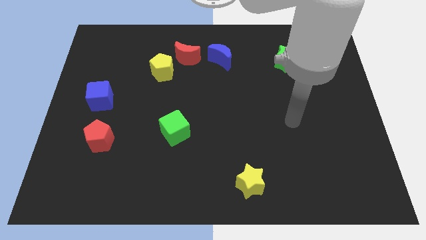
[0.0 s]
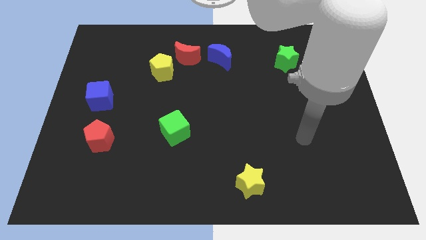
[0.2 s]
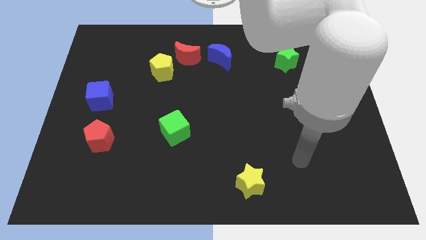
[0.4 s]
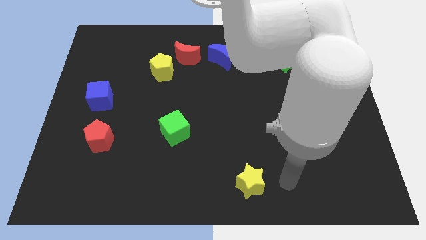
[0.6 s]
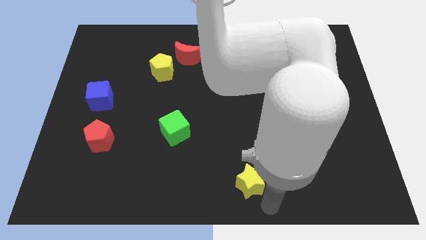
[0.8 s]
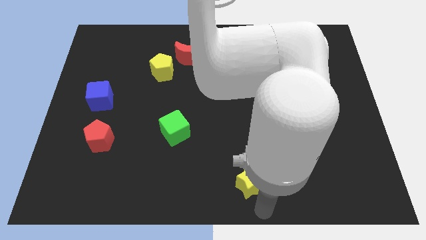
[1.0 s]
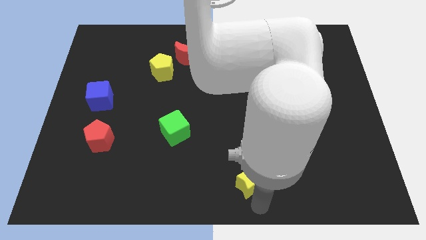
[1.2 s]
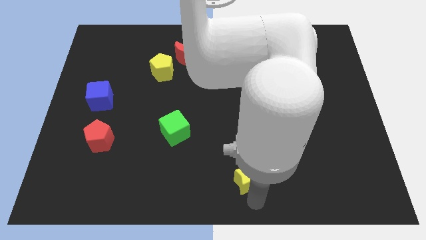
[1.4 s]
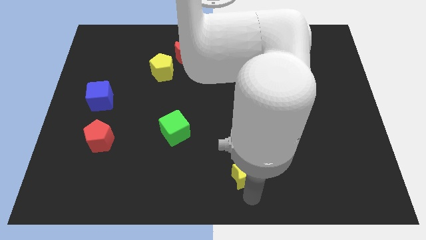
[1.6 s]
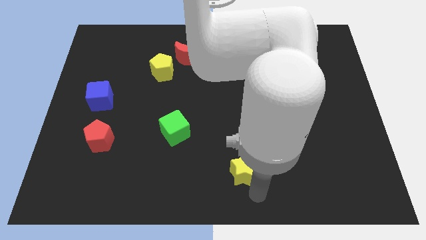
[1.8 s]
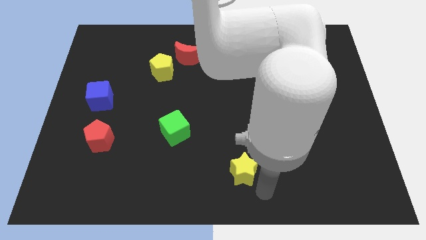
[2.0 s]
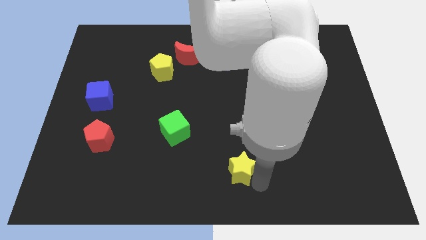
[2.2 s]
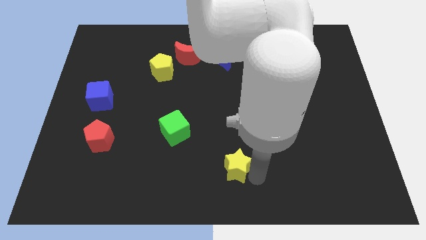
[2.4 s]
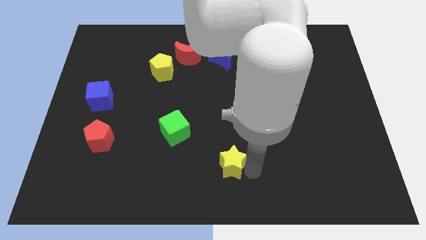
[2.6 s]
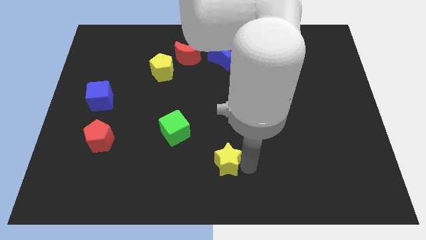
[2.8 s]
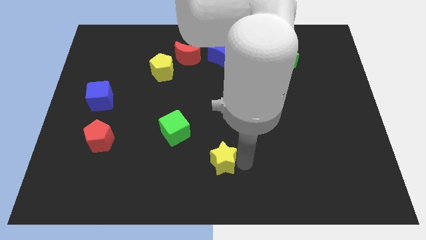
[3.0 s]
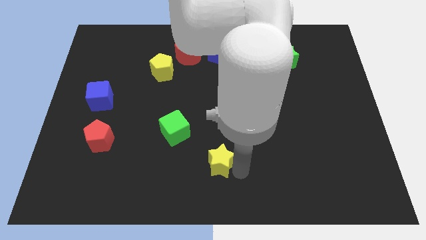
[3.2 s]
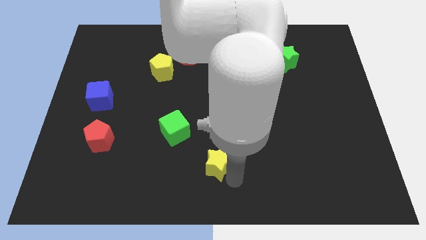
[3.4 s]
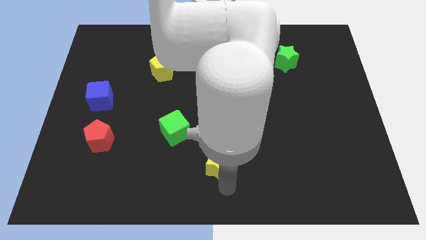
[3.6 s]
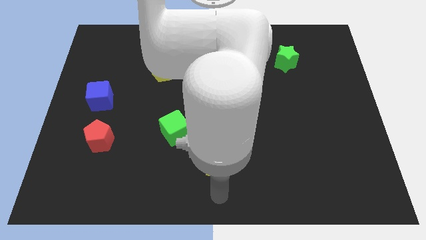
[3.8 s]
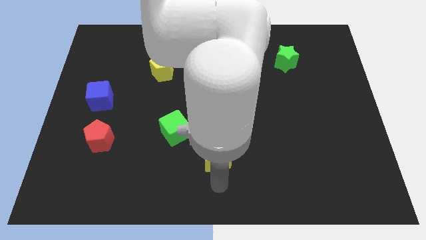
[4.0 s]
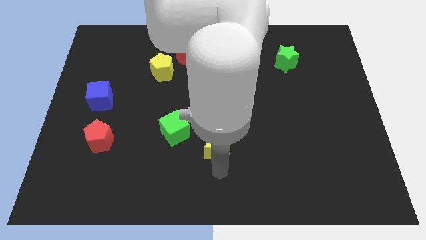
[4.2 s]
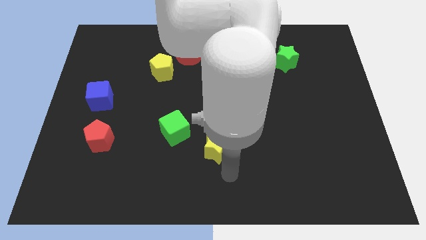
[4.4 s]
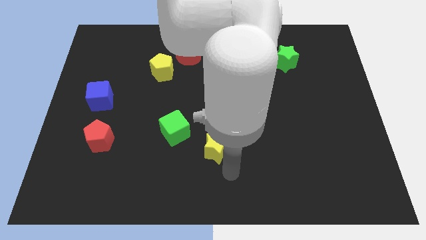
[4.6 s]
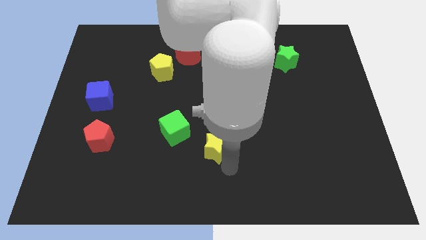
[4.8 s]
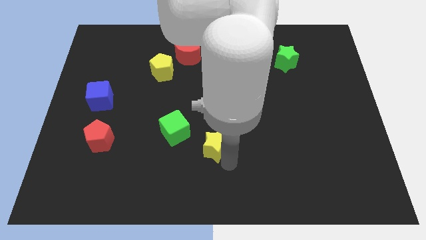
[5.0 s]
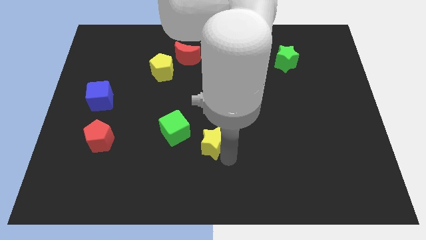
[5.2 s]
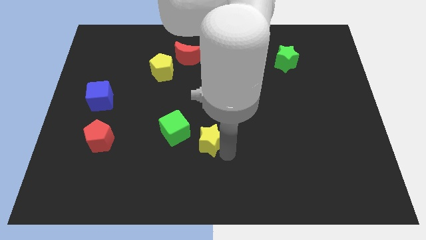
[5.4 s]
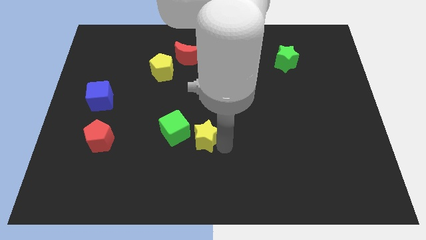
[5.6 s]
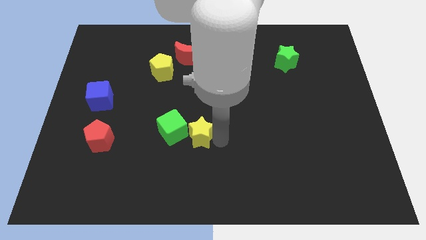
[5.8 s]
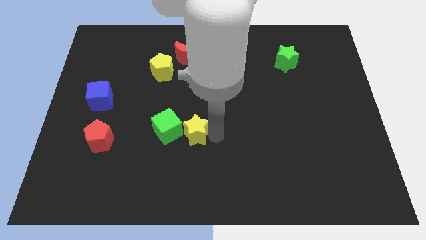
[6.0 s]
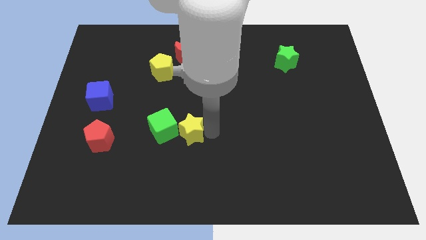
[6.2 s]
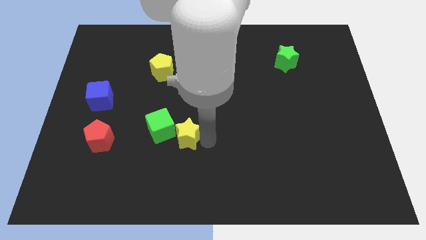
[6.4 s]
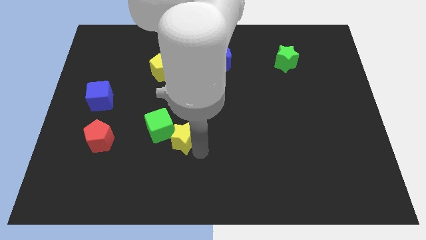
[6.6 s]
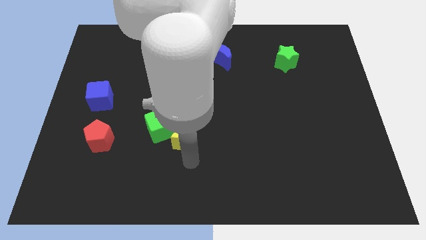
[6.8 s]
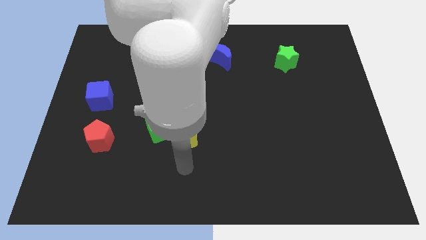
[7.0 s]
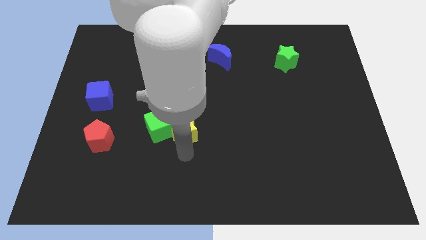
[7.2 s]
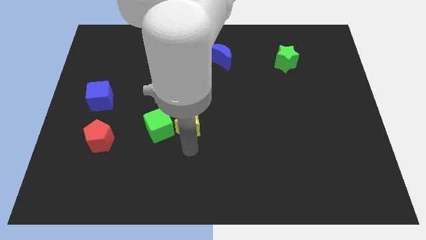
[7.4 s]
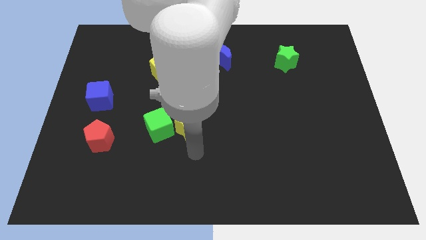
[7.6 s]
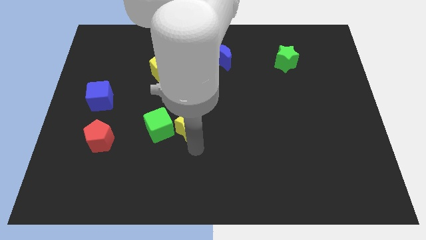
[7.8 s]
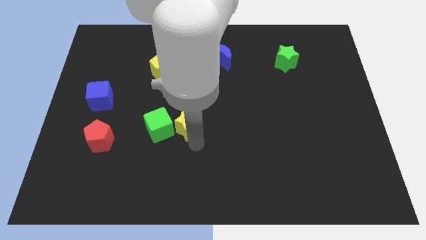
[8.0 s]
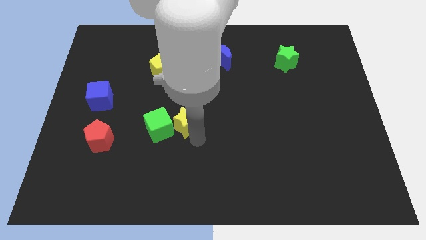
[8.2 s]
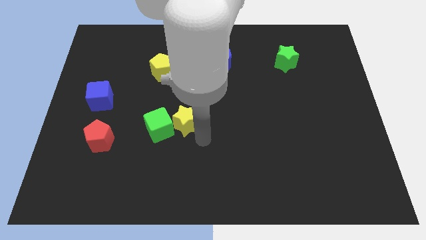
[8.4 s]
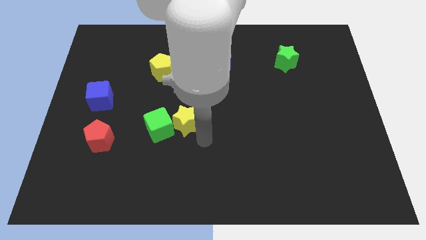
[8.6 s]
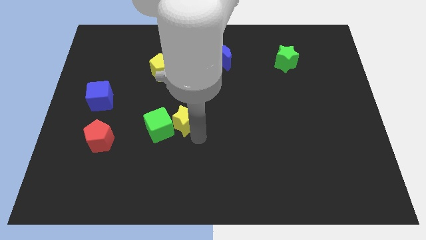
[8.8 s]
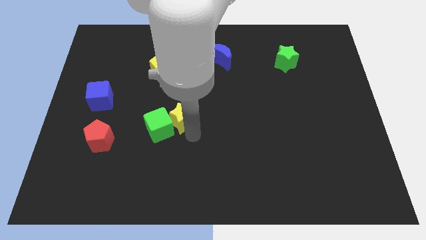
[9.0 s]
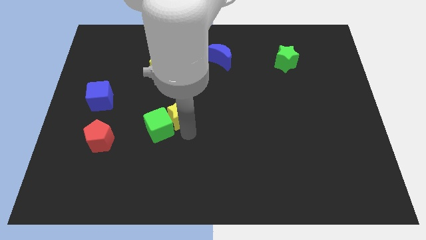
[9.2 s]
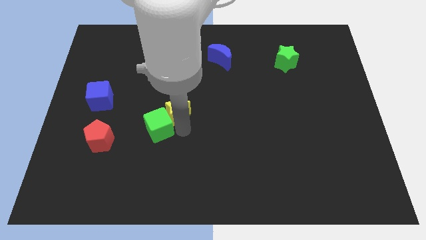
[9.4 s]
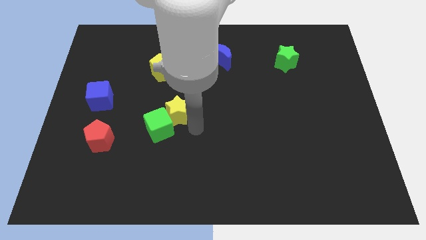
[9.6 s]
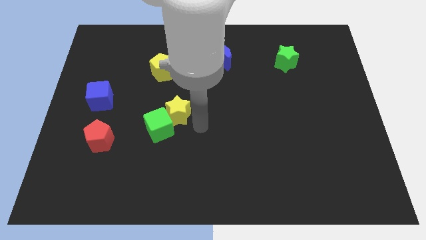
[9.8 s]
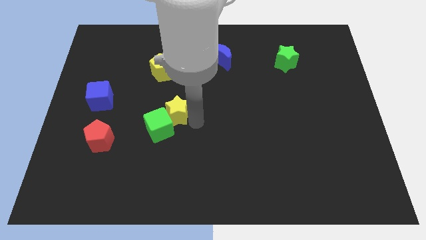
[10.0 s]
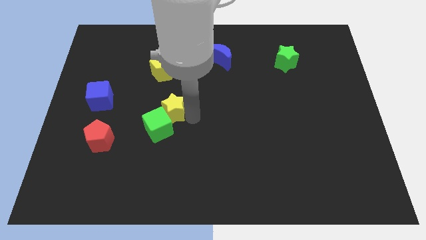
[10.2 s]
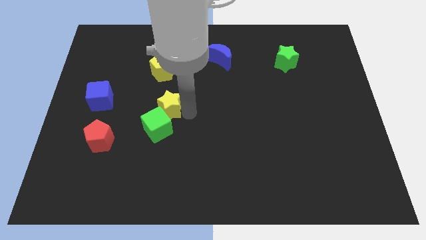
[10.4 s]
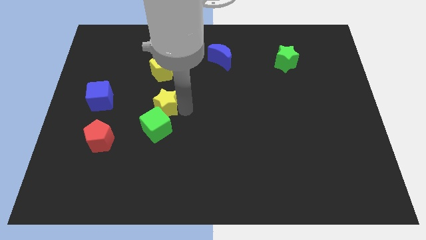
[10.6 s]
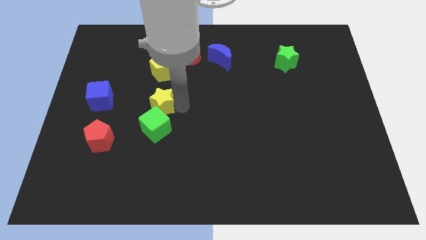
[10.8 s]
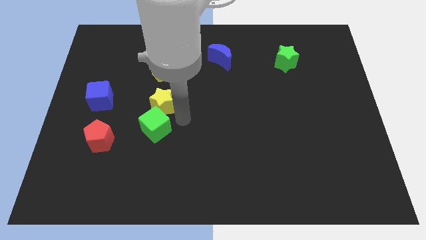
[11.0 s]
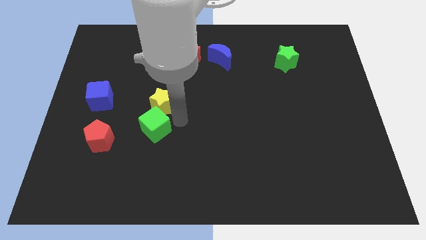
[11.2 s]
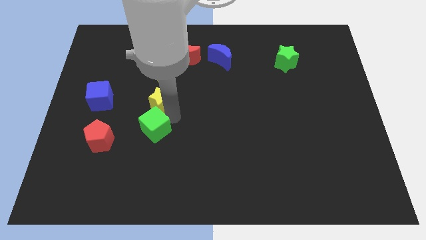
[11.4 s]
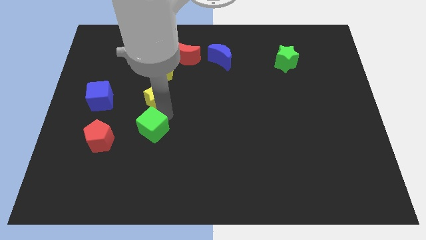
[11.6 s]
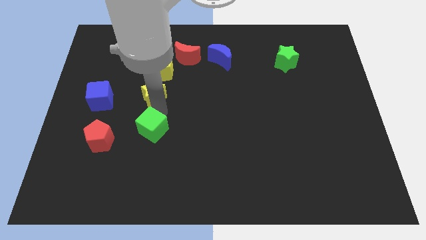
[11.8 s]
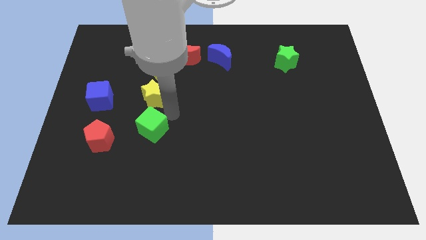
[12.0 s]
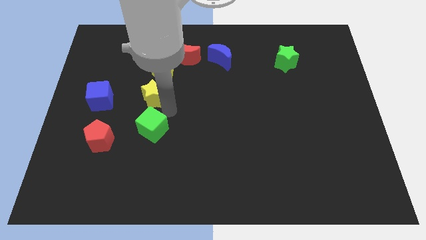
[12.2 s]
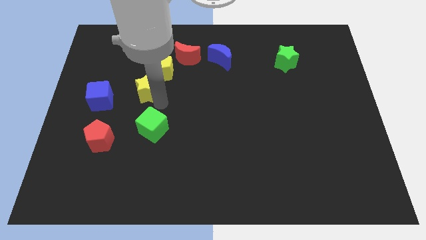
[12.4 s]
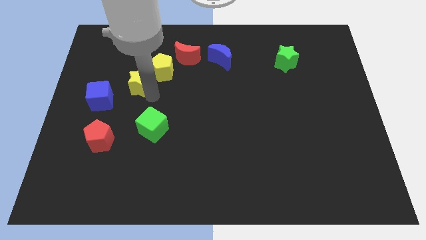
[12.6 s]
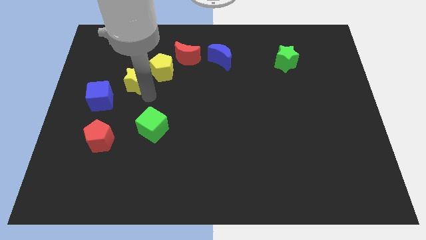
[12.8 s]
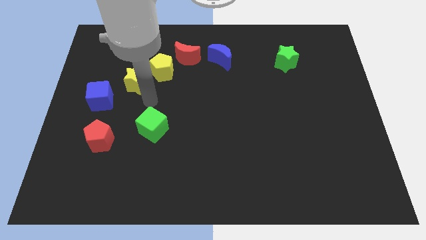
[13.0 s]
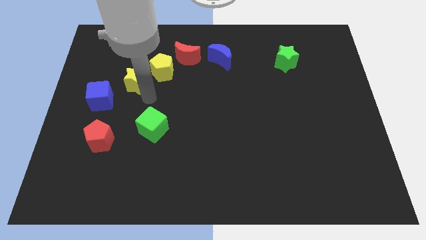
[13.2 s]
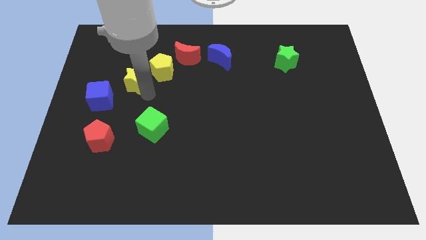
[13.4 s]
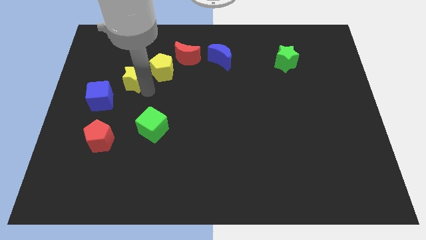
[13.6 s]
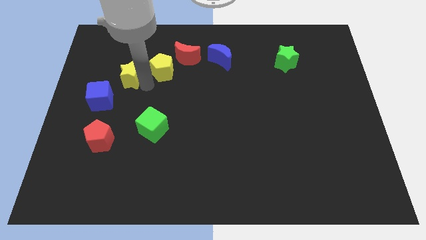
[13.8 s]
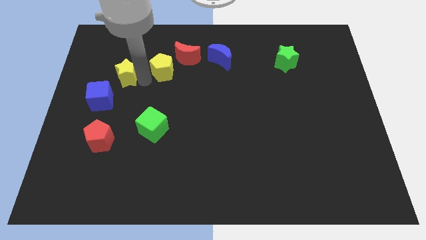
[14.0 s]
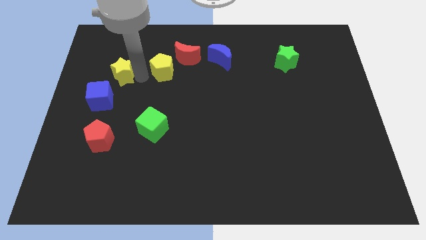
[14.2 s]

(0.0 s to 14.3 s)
move the yellow star above the blue cube
